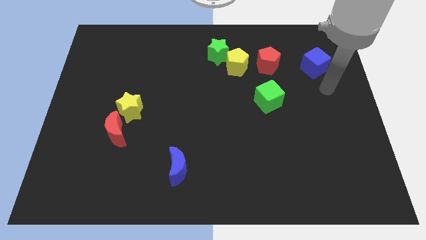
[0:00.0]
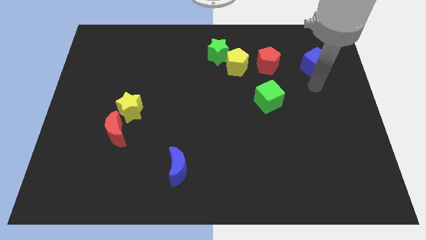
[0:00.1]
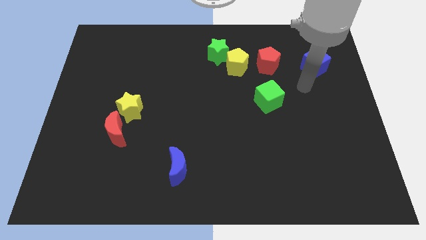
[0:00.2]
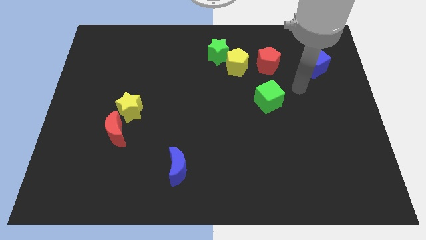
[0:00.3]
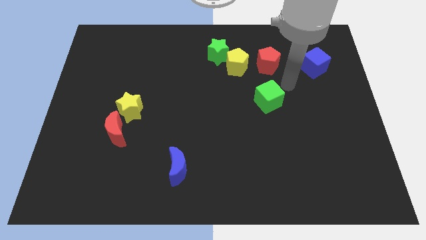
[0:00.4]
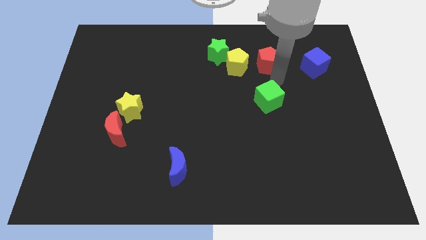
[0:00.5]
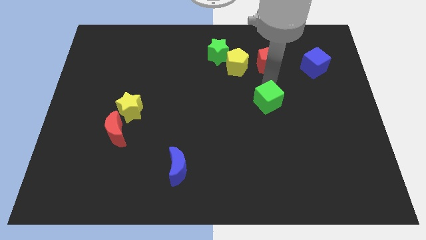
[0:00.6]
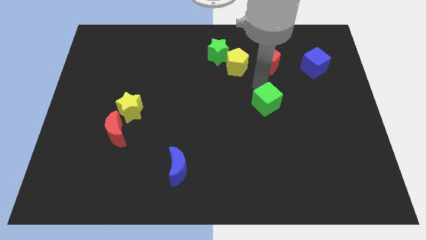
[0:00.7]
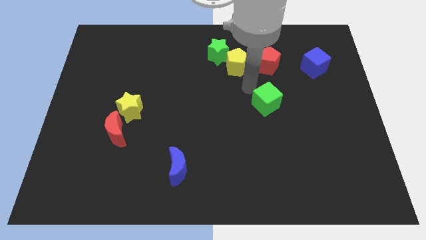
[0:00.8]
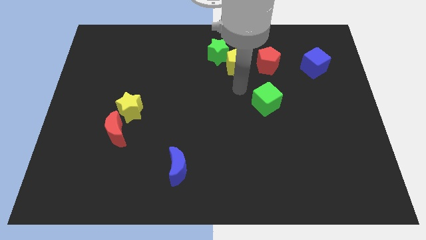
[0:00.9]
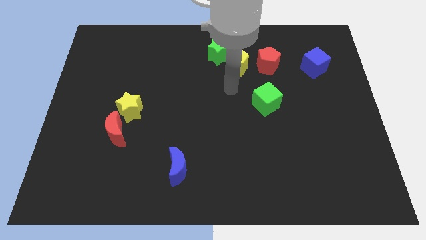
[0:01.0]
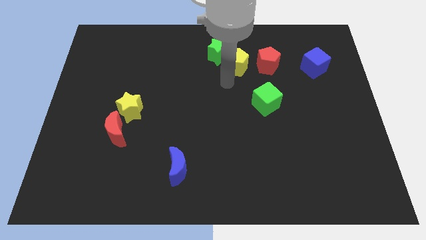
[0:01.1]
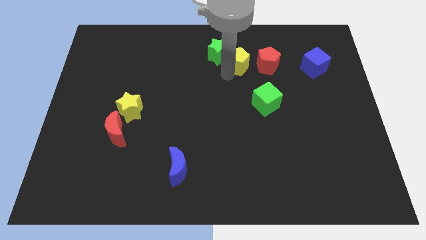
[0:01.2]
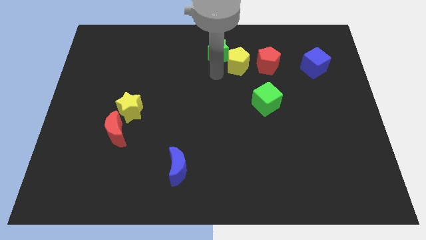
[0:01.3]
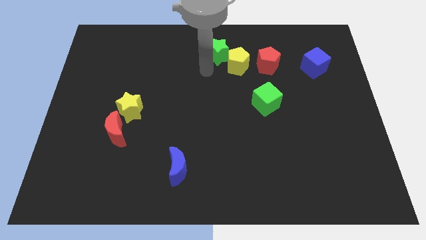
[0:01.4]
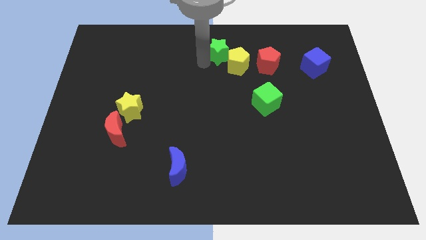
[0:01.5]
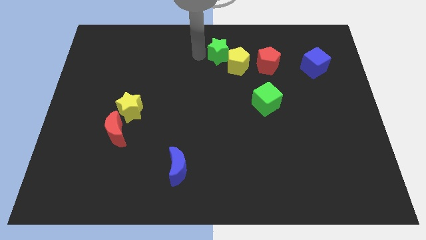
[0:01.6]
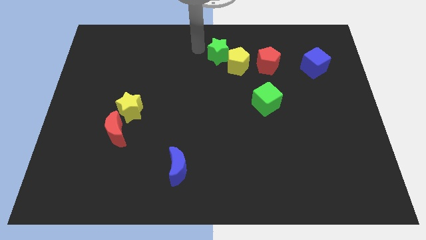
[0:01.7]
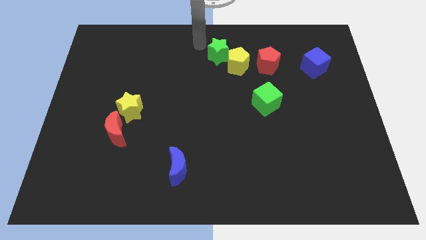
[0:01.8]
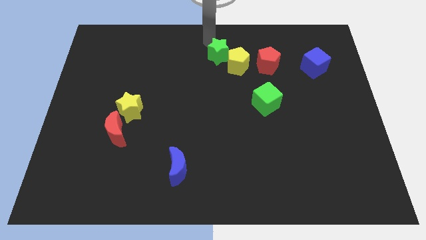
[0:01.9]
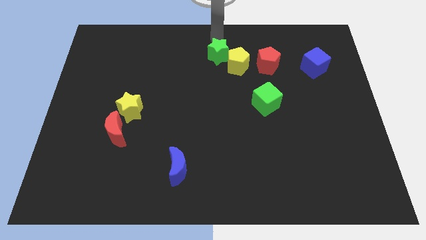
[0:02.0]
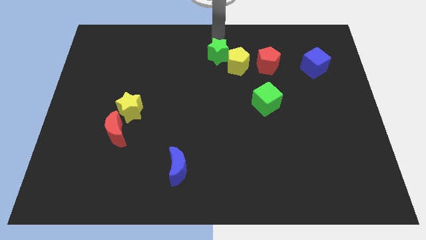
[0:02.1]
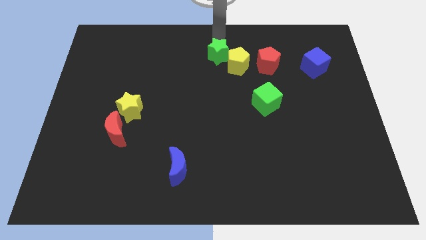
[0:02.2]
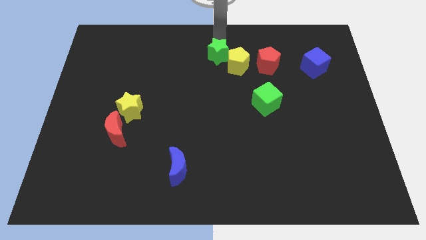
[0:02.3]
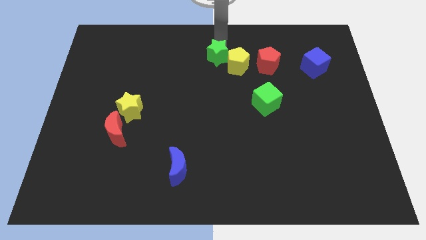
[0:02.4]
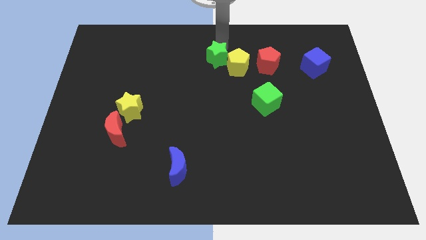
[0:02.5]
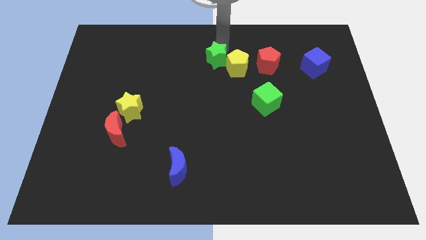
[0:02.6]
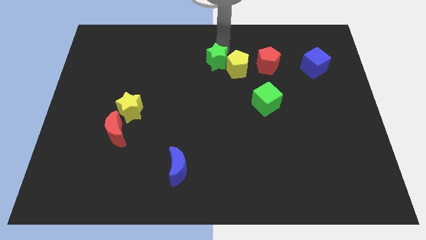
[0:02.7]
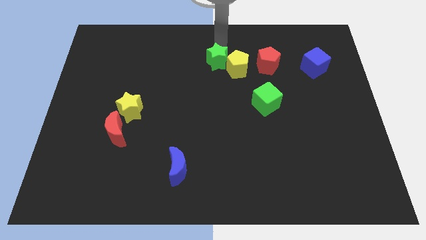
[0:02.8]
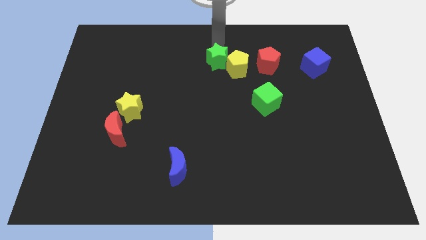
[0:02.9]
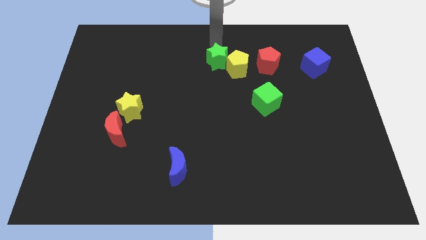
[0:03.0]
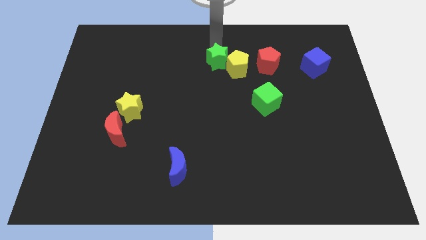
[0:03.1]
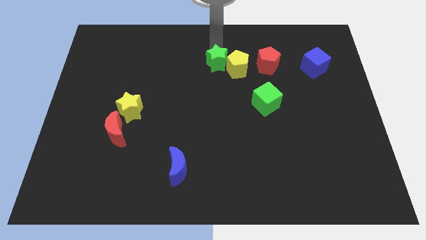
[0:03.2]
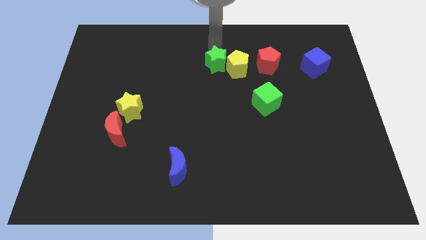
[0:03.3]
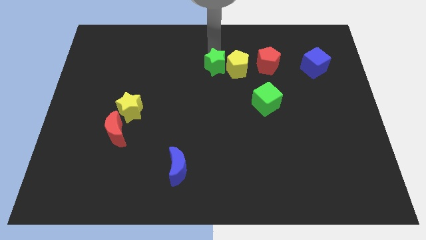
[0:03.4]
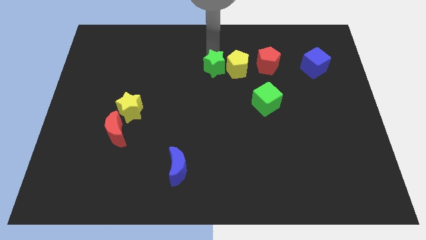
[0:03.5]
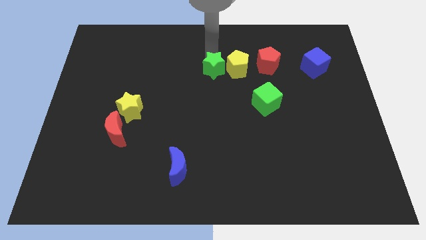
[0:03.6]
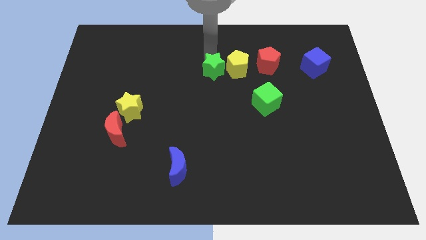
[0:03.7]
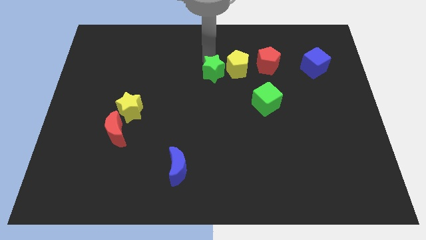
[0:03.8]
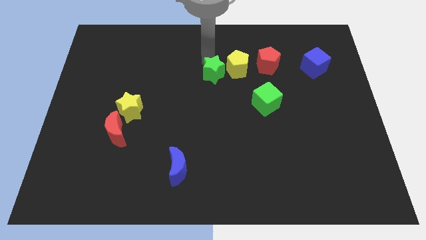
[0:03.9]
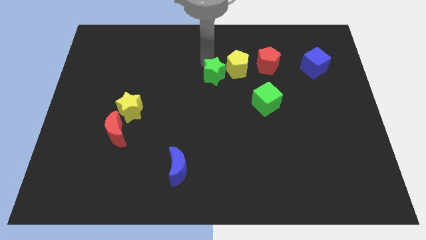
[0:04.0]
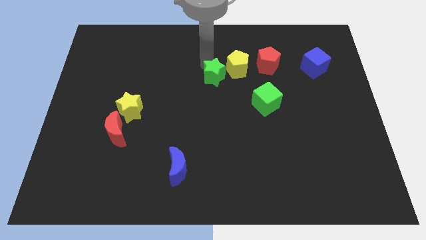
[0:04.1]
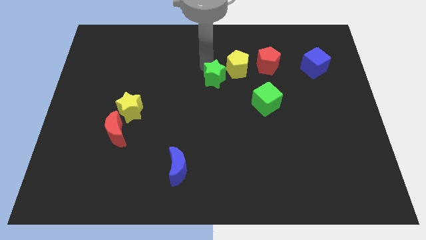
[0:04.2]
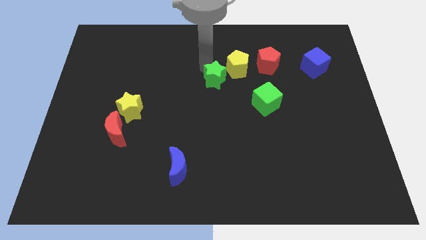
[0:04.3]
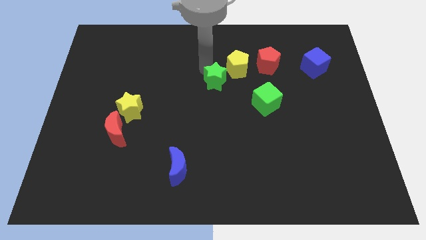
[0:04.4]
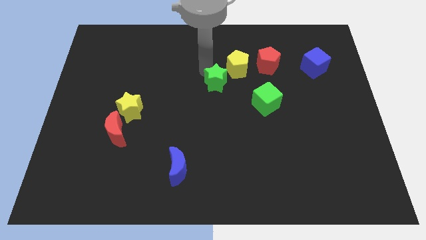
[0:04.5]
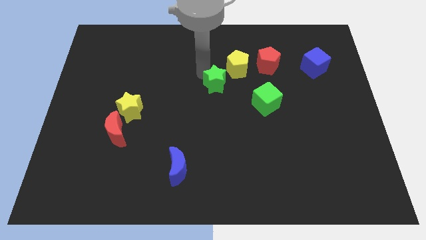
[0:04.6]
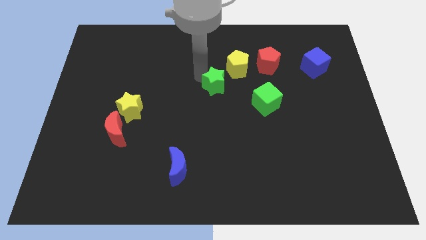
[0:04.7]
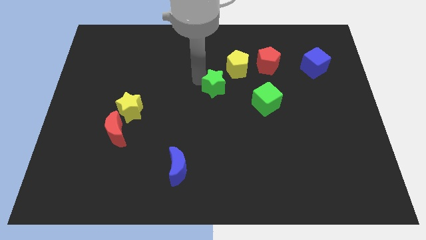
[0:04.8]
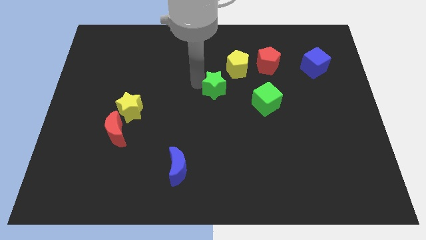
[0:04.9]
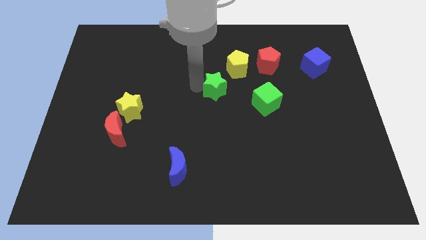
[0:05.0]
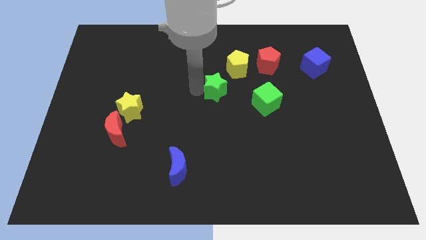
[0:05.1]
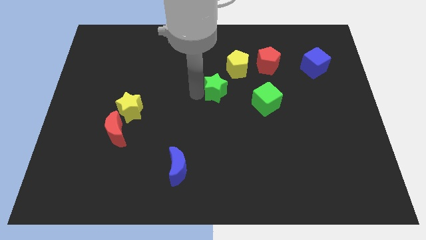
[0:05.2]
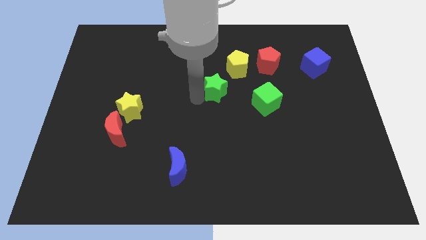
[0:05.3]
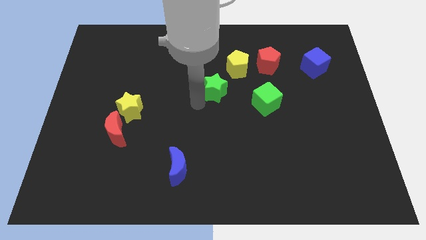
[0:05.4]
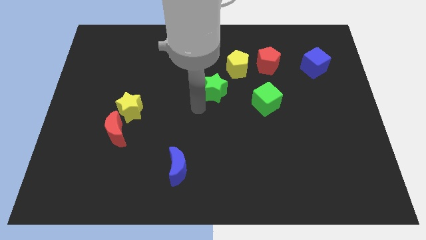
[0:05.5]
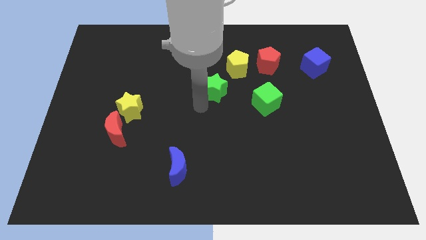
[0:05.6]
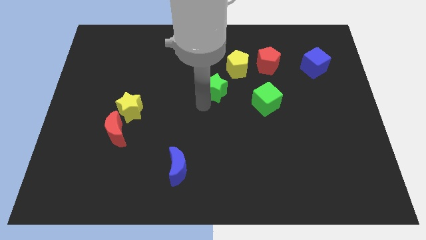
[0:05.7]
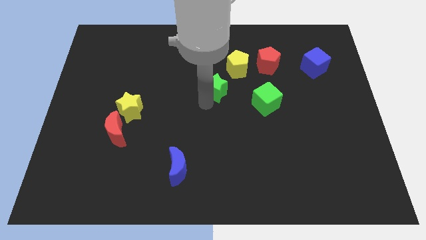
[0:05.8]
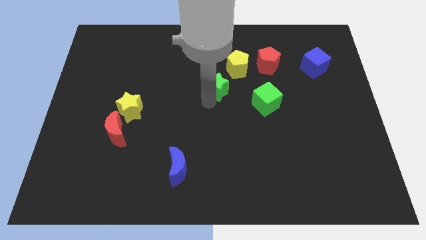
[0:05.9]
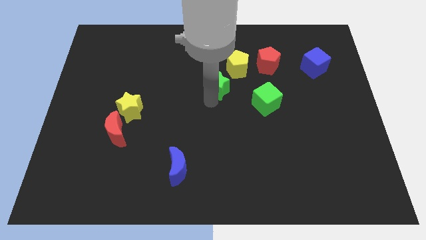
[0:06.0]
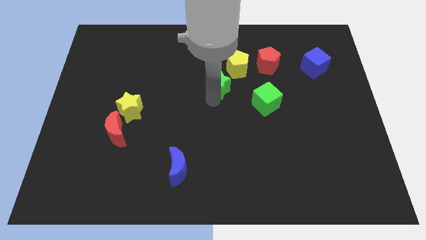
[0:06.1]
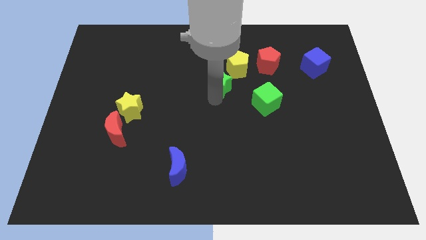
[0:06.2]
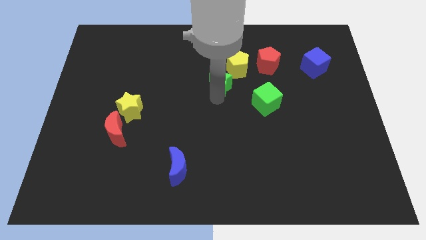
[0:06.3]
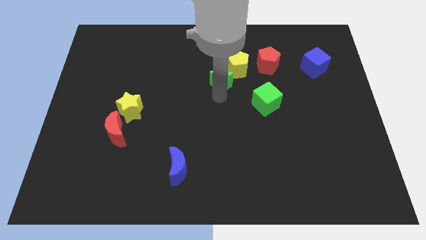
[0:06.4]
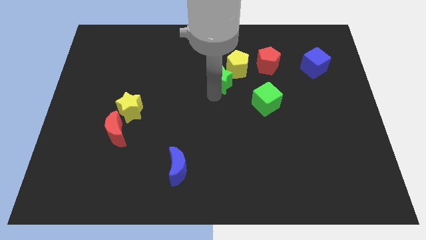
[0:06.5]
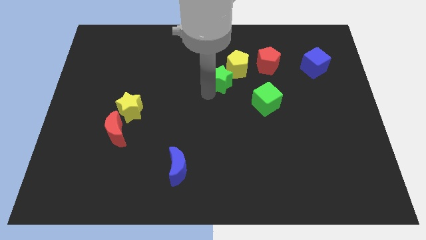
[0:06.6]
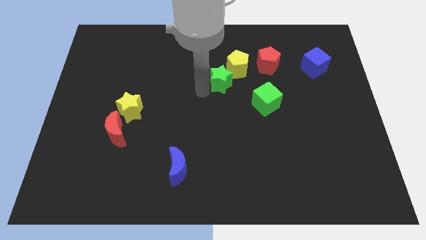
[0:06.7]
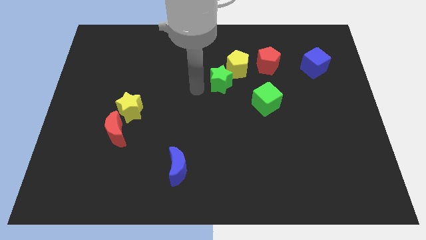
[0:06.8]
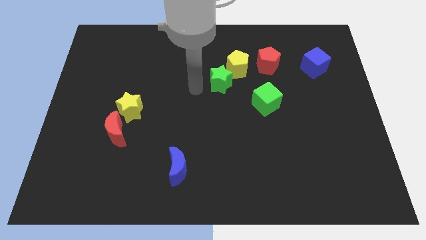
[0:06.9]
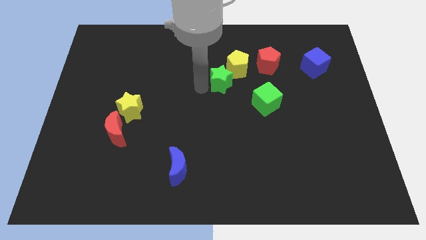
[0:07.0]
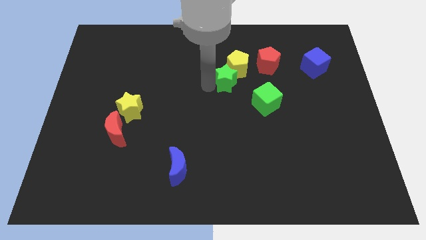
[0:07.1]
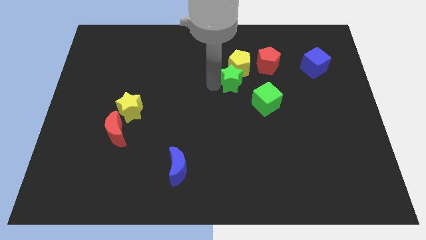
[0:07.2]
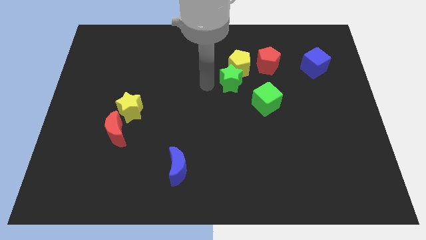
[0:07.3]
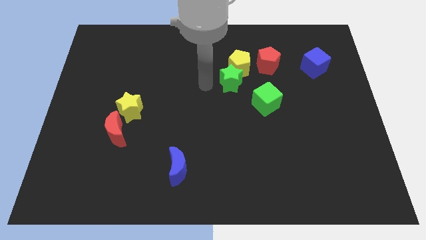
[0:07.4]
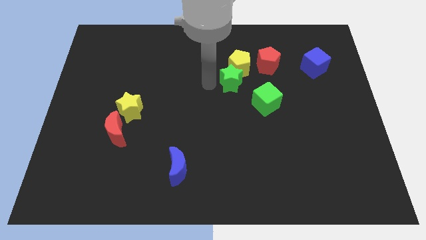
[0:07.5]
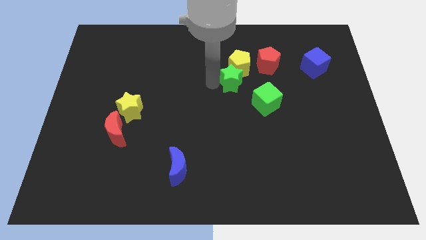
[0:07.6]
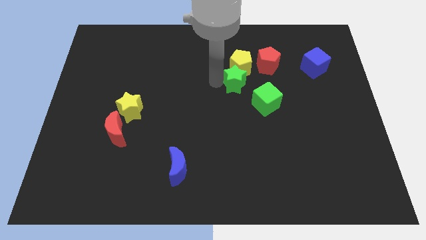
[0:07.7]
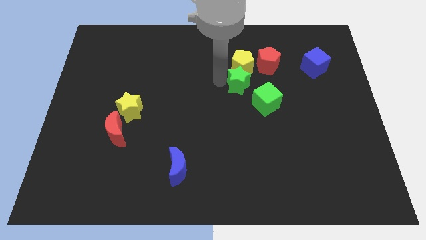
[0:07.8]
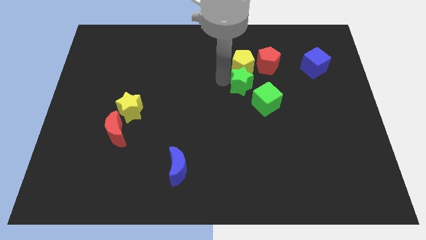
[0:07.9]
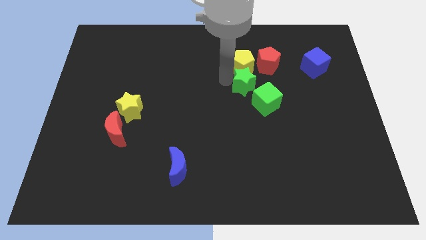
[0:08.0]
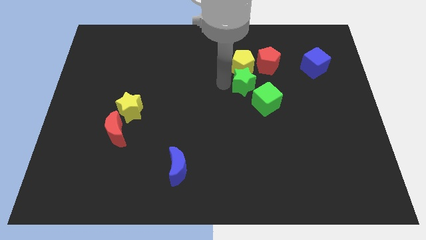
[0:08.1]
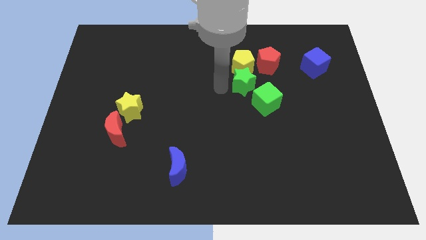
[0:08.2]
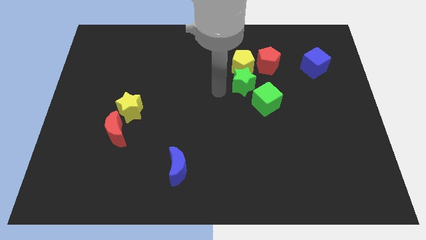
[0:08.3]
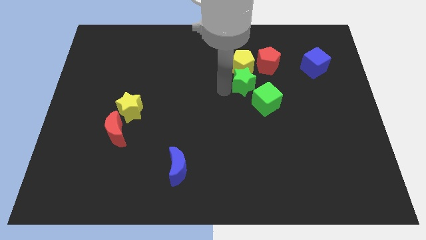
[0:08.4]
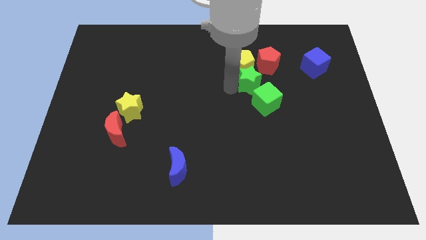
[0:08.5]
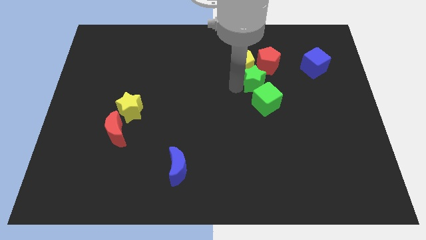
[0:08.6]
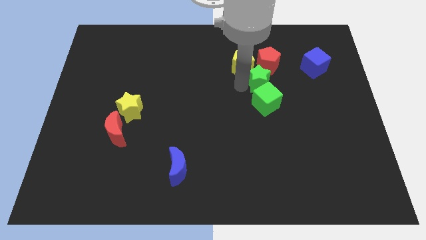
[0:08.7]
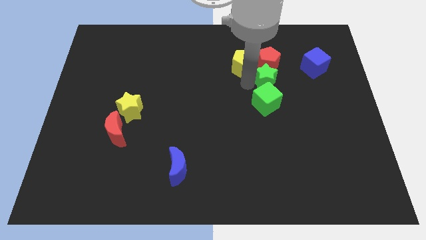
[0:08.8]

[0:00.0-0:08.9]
put the green star diagonally up and to the right of the green cube

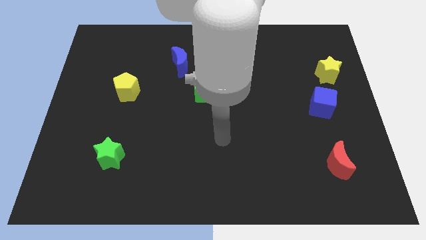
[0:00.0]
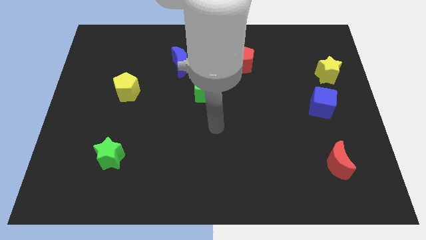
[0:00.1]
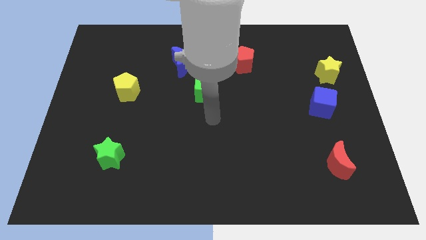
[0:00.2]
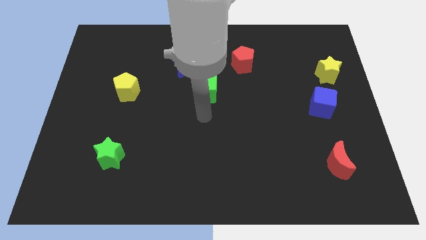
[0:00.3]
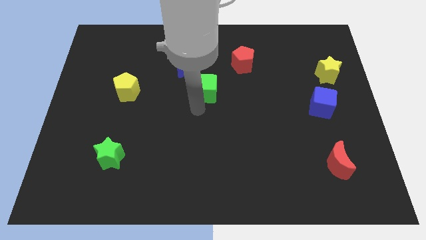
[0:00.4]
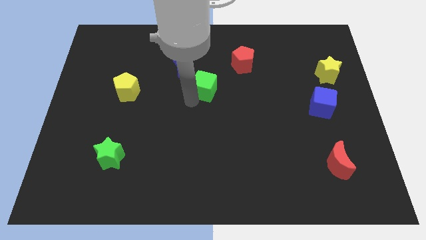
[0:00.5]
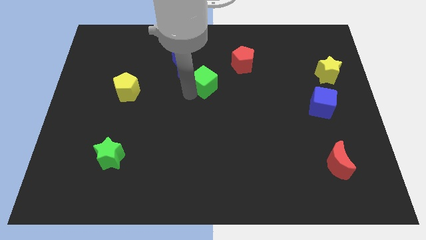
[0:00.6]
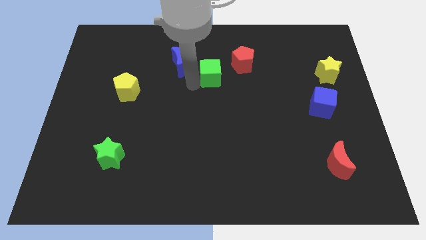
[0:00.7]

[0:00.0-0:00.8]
put the blue moon to the left of the green cube
